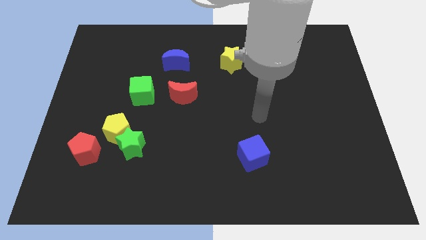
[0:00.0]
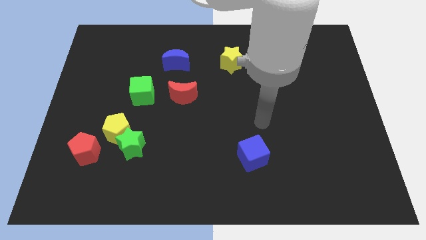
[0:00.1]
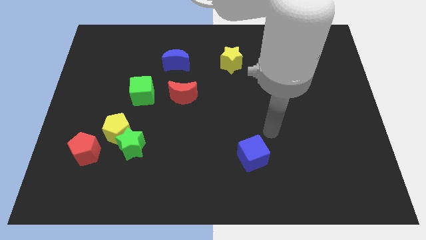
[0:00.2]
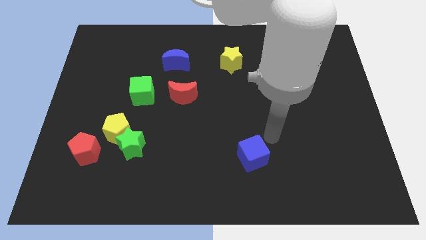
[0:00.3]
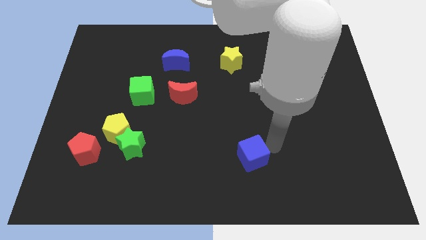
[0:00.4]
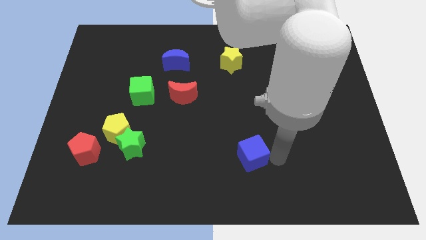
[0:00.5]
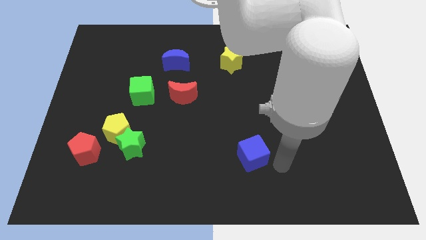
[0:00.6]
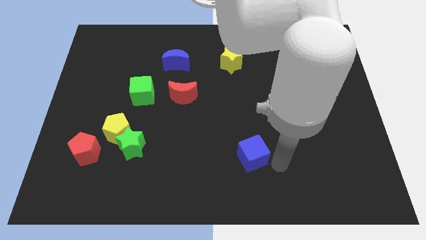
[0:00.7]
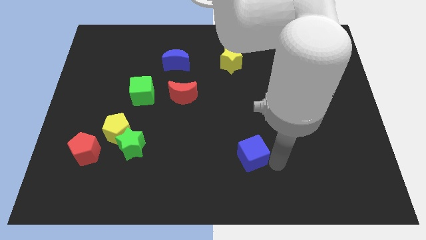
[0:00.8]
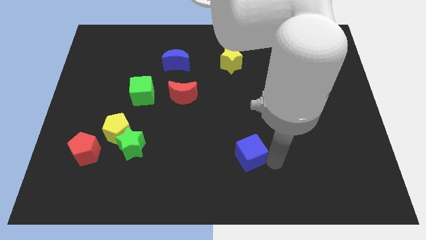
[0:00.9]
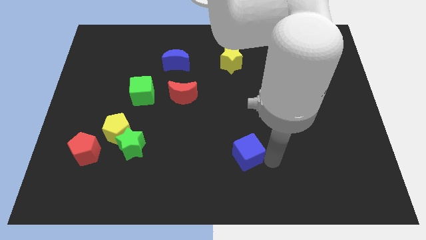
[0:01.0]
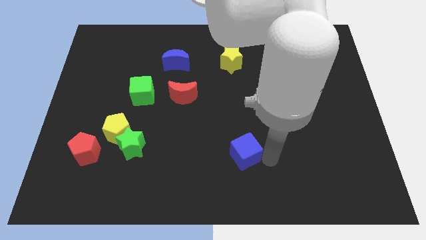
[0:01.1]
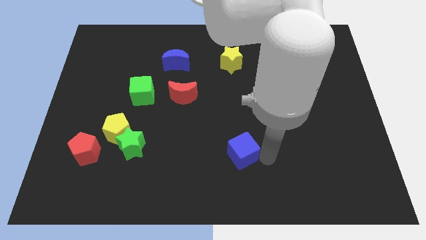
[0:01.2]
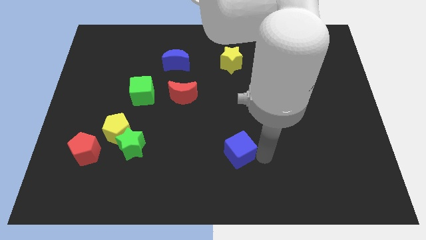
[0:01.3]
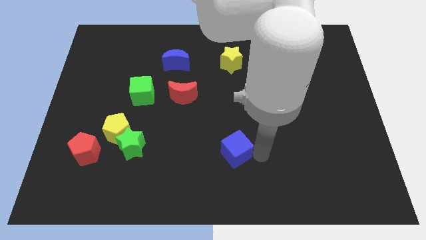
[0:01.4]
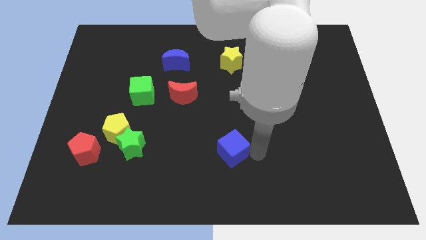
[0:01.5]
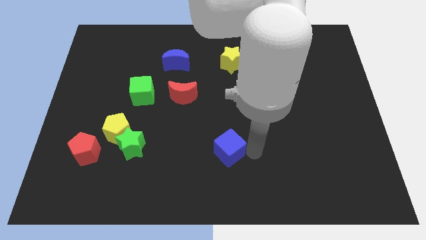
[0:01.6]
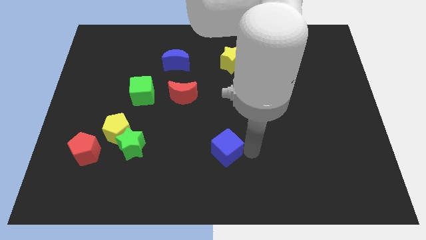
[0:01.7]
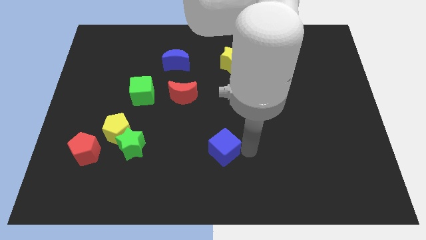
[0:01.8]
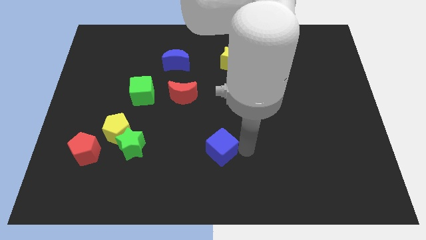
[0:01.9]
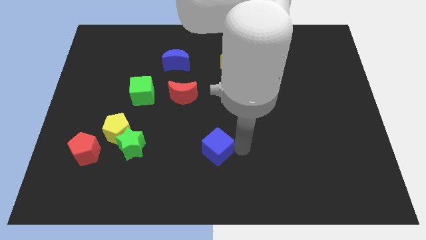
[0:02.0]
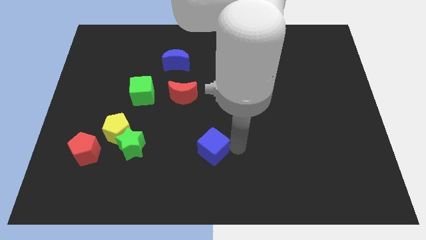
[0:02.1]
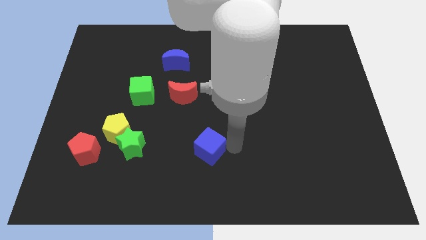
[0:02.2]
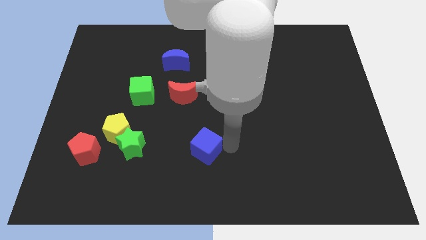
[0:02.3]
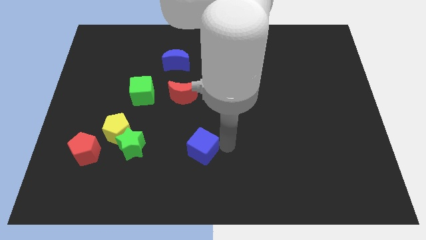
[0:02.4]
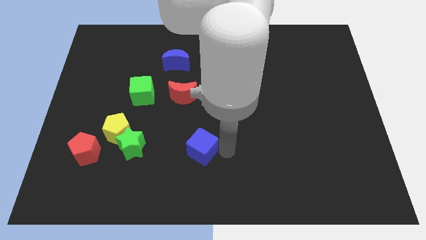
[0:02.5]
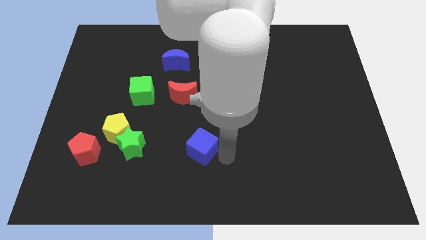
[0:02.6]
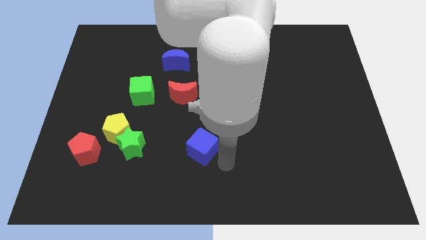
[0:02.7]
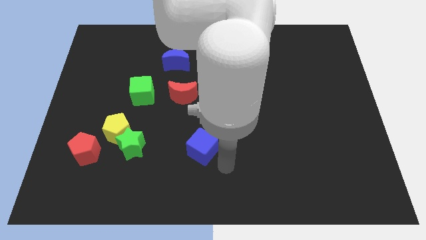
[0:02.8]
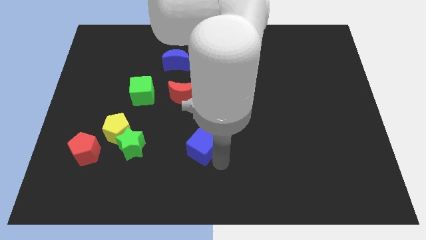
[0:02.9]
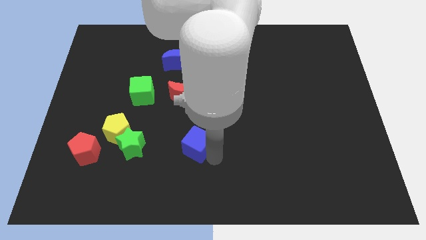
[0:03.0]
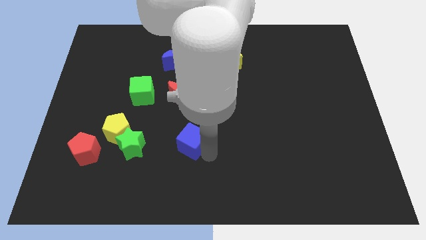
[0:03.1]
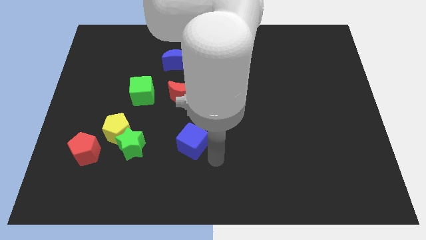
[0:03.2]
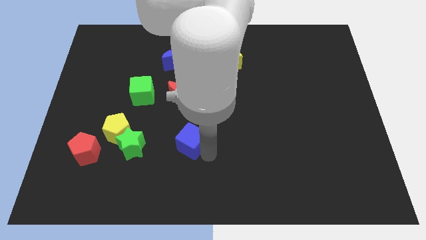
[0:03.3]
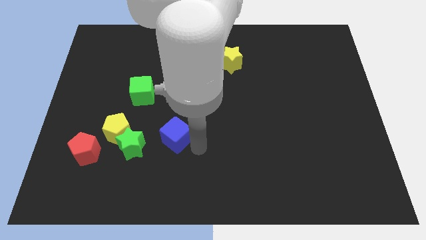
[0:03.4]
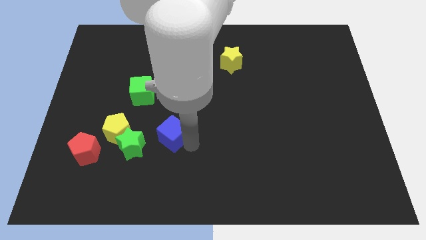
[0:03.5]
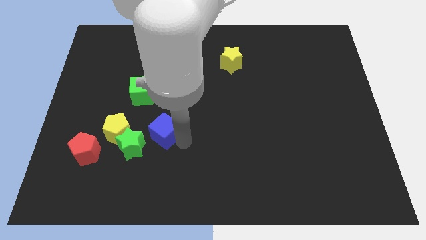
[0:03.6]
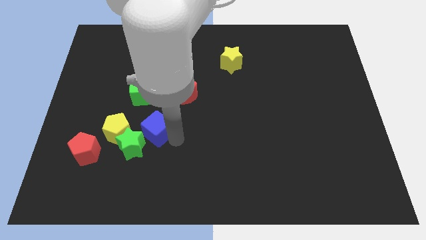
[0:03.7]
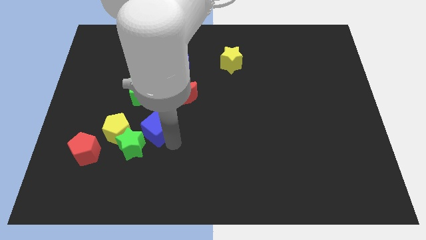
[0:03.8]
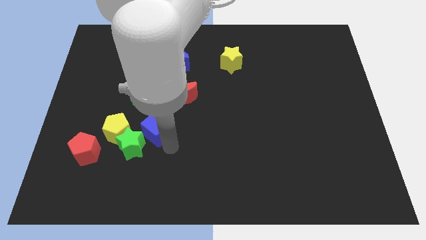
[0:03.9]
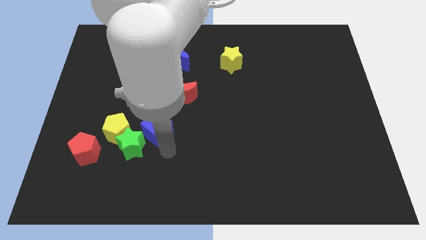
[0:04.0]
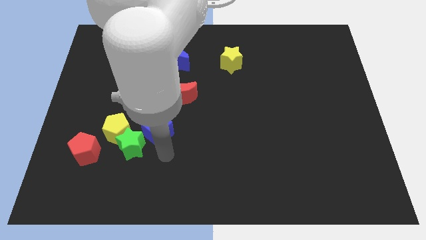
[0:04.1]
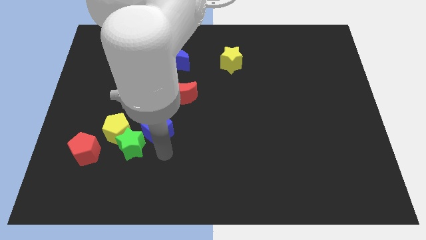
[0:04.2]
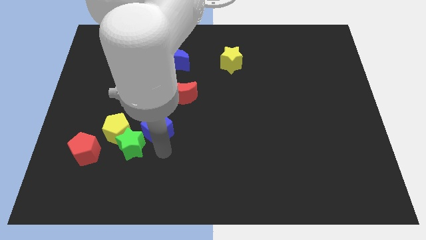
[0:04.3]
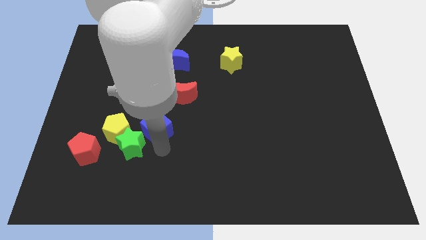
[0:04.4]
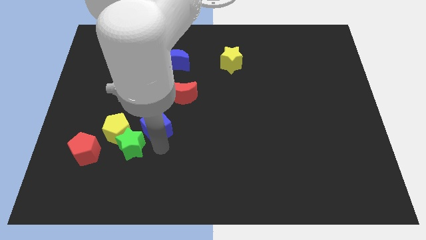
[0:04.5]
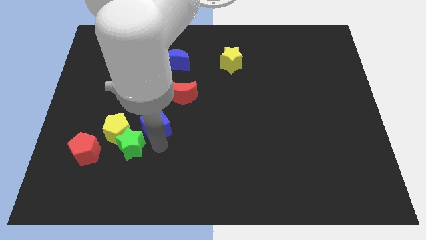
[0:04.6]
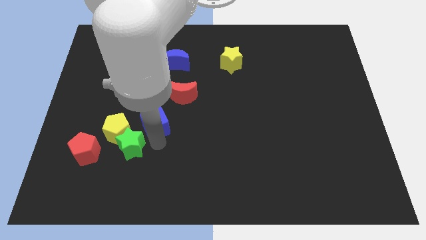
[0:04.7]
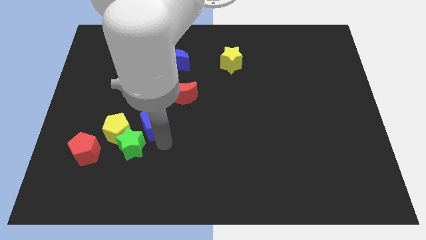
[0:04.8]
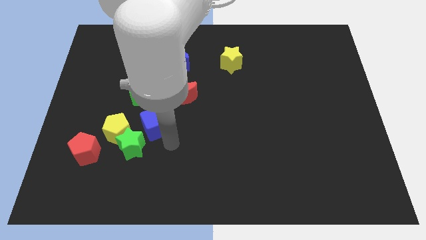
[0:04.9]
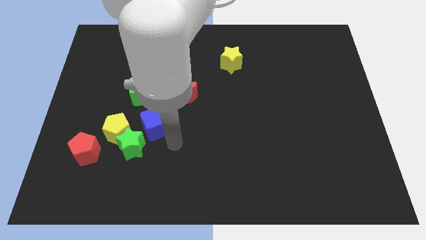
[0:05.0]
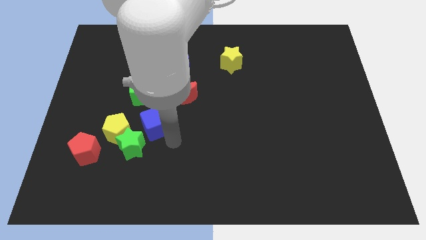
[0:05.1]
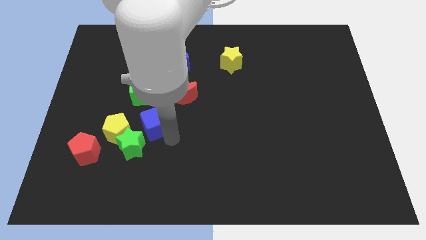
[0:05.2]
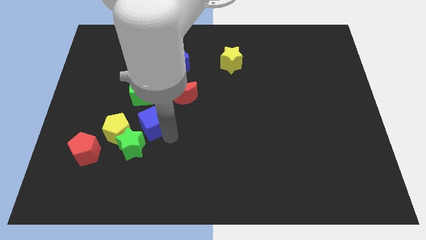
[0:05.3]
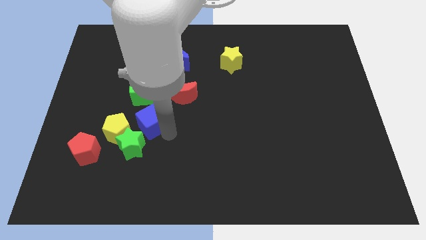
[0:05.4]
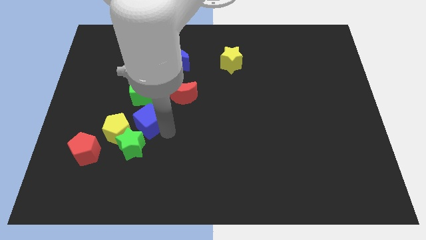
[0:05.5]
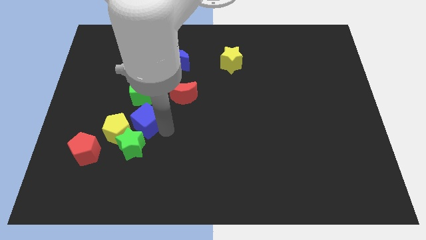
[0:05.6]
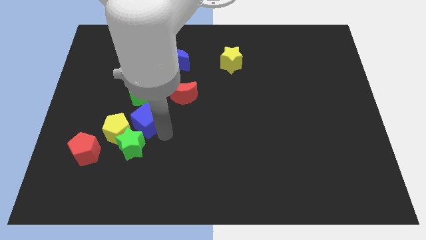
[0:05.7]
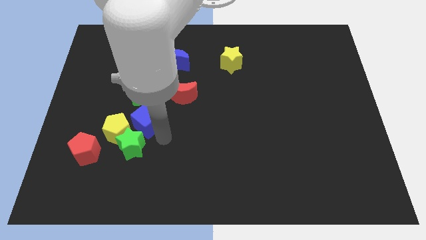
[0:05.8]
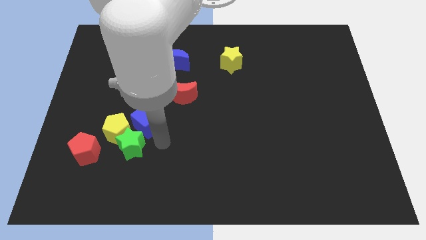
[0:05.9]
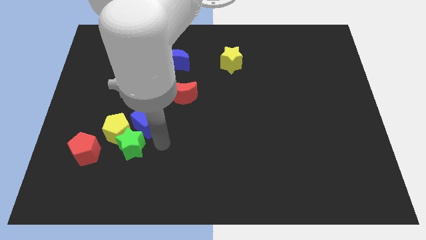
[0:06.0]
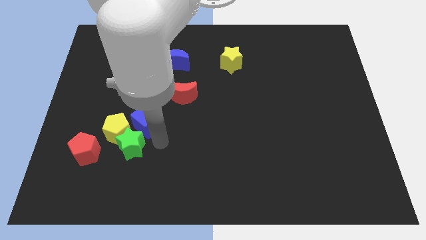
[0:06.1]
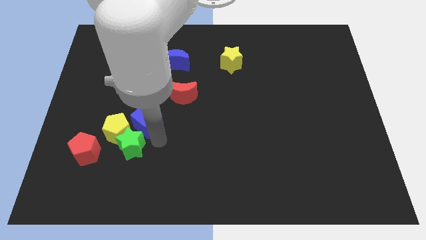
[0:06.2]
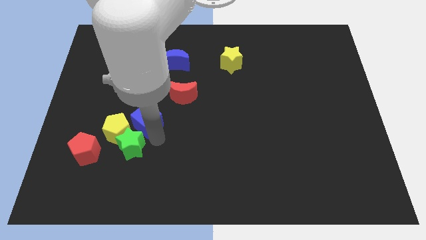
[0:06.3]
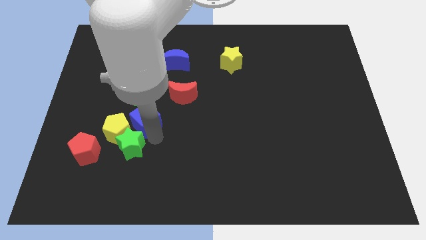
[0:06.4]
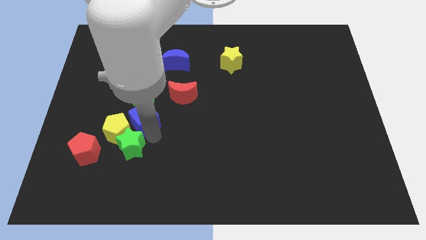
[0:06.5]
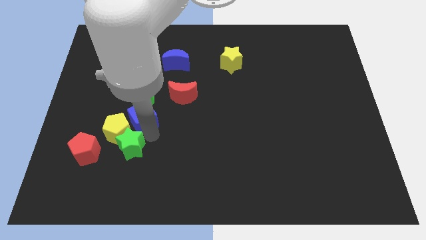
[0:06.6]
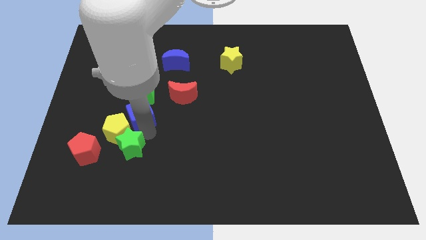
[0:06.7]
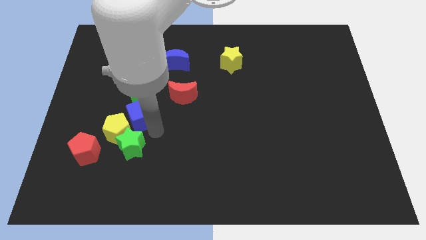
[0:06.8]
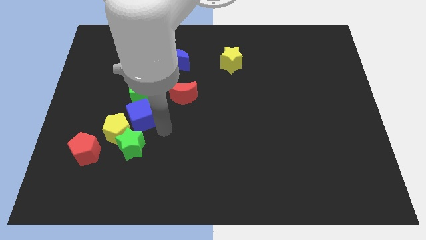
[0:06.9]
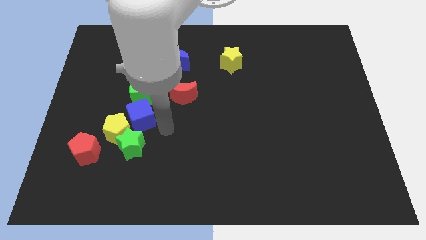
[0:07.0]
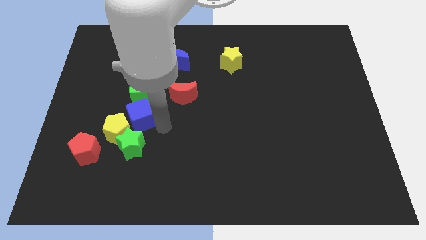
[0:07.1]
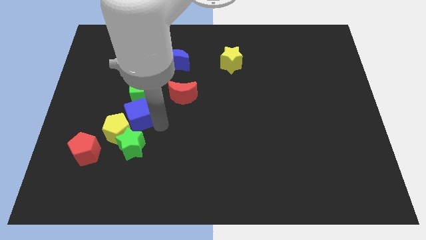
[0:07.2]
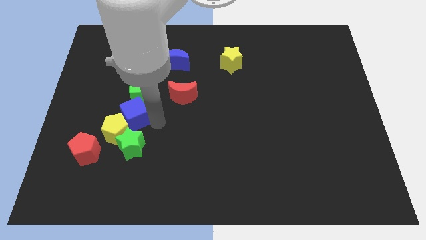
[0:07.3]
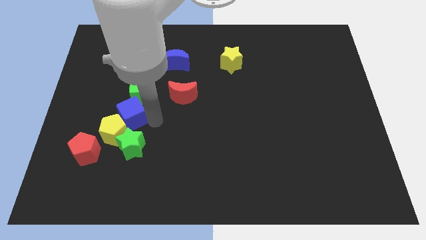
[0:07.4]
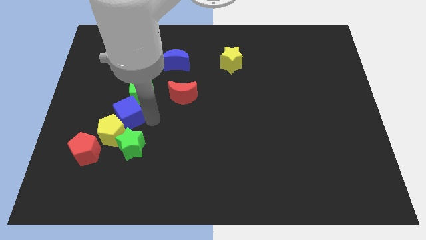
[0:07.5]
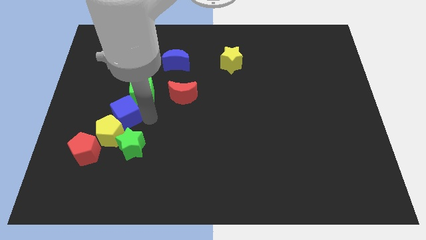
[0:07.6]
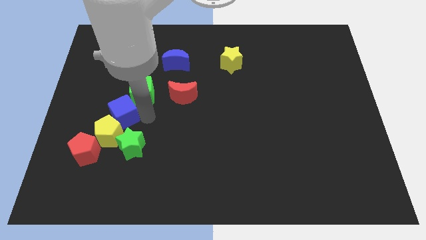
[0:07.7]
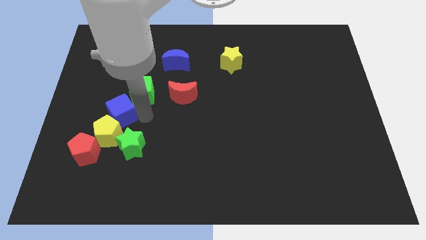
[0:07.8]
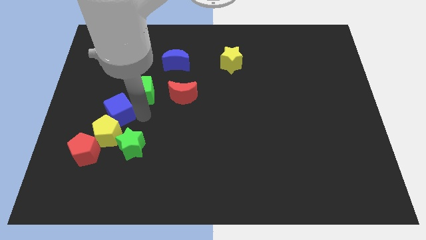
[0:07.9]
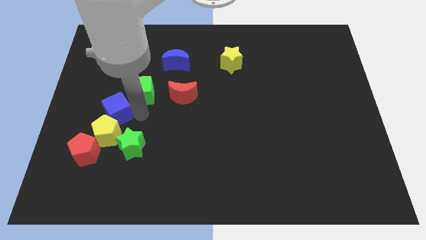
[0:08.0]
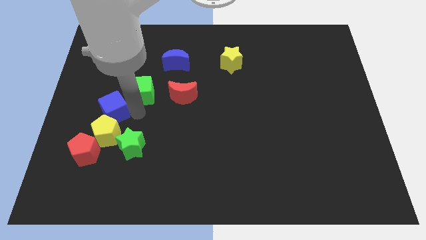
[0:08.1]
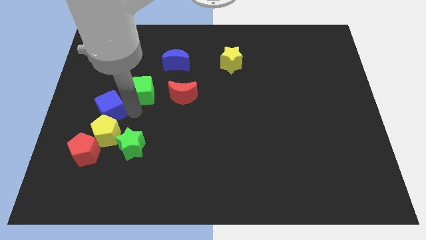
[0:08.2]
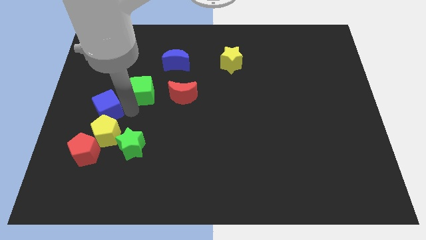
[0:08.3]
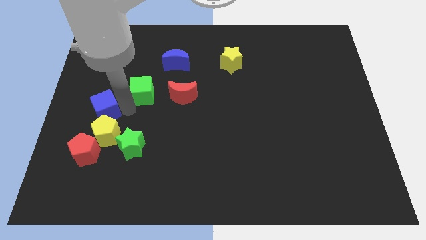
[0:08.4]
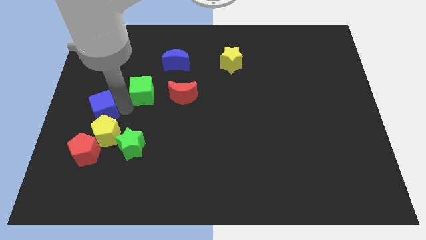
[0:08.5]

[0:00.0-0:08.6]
push the blue cube to the left side
